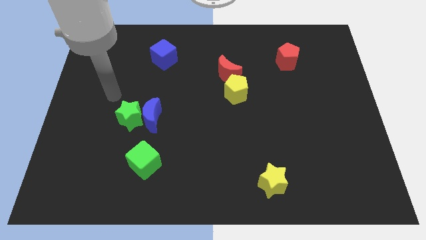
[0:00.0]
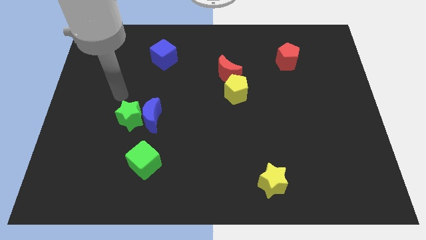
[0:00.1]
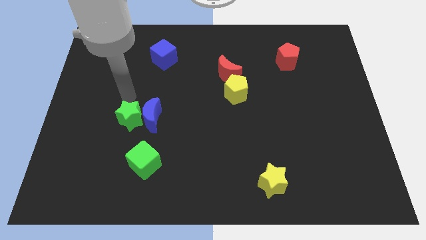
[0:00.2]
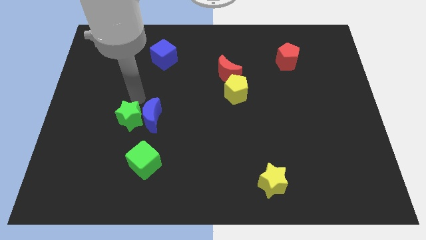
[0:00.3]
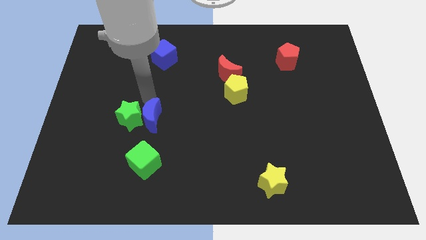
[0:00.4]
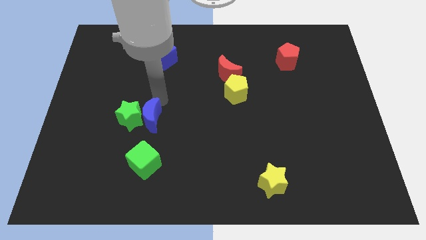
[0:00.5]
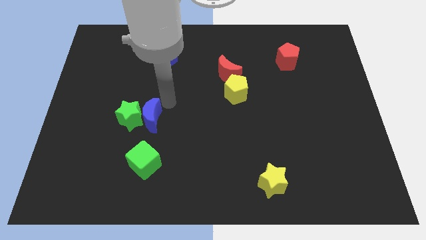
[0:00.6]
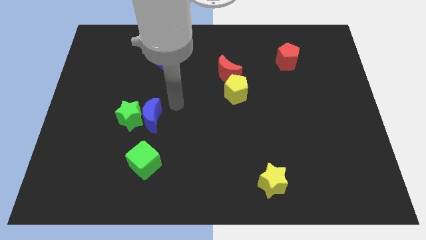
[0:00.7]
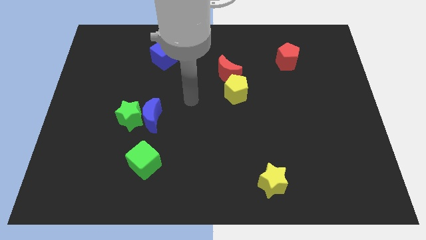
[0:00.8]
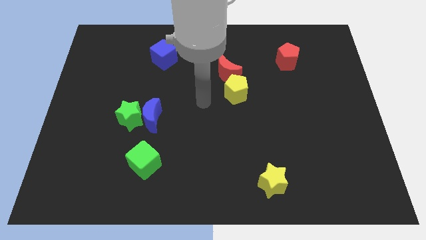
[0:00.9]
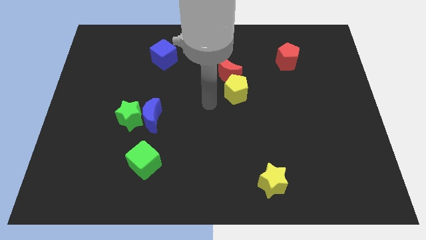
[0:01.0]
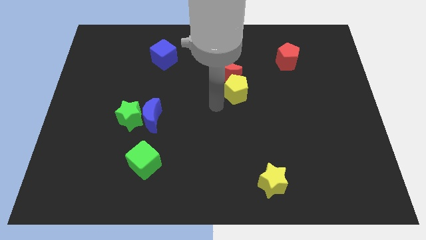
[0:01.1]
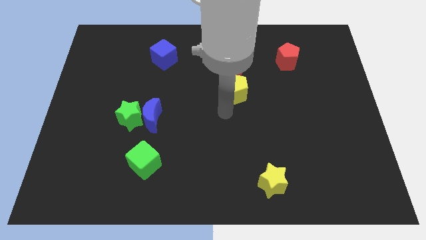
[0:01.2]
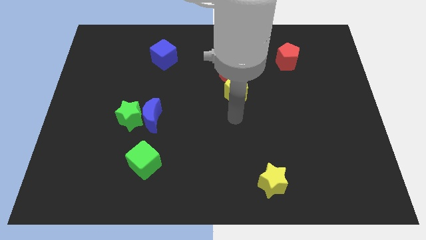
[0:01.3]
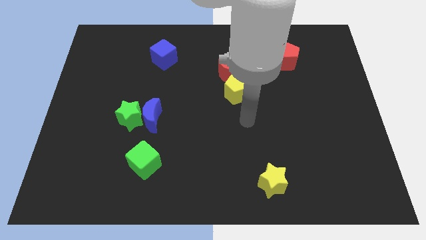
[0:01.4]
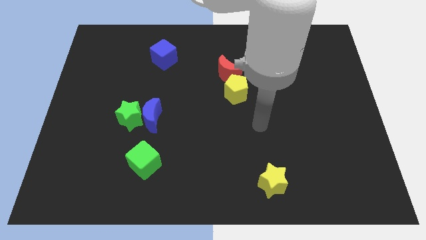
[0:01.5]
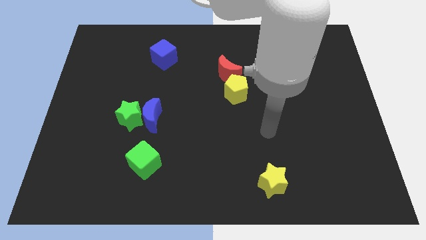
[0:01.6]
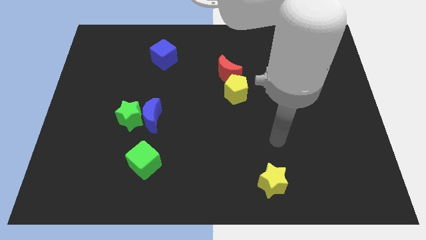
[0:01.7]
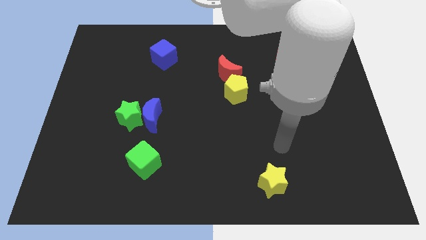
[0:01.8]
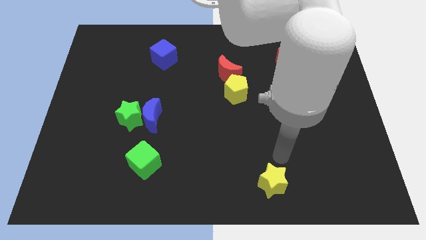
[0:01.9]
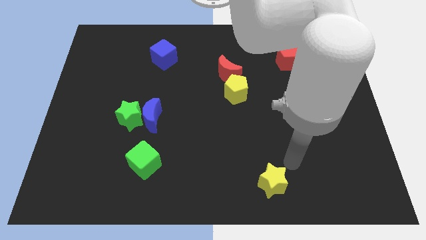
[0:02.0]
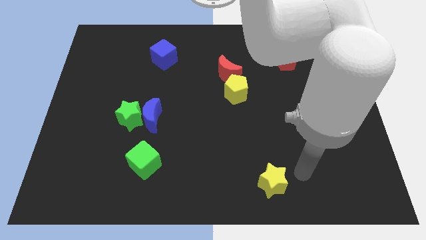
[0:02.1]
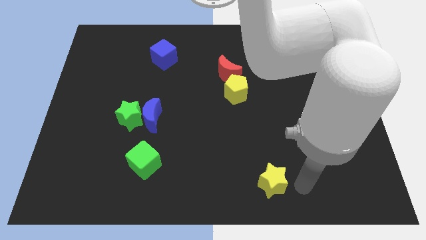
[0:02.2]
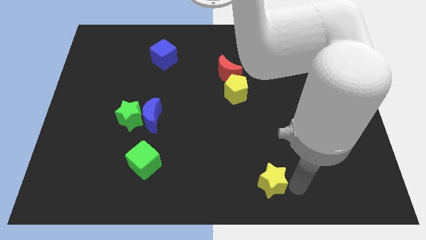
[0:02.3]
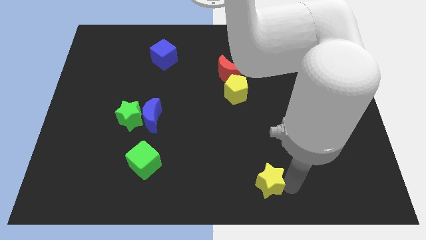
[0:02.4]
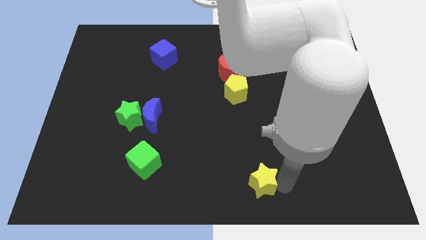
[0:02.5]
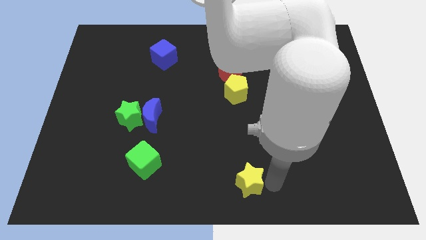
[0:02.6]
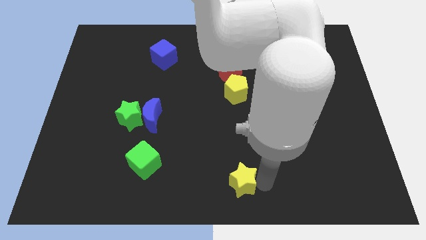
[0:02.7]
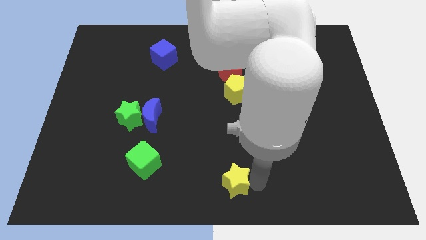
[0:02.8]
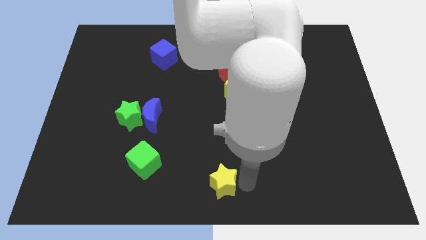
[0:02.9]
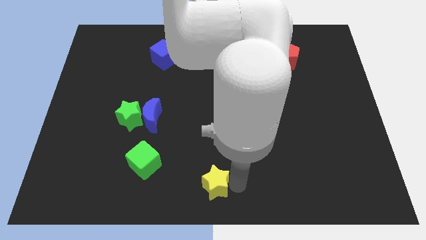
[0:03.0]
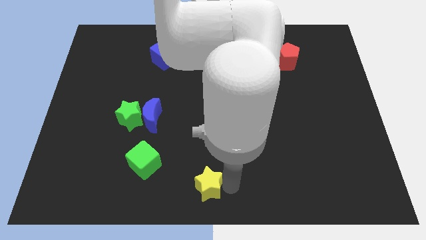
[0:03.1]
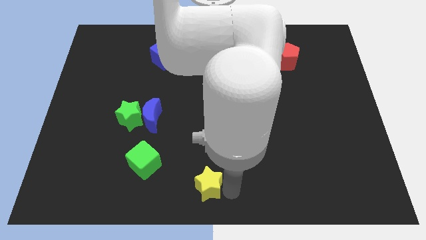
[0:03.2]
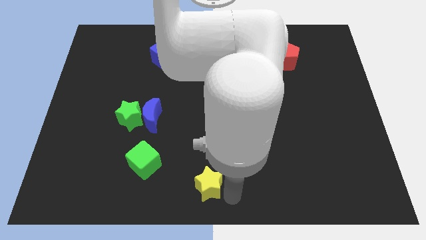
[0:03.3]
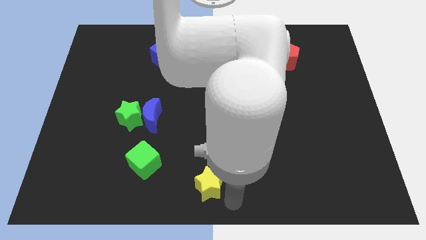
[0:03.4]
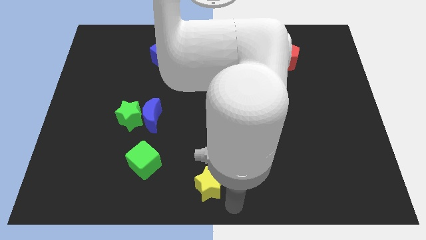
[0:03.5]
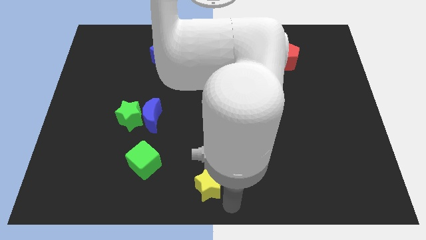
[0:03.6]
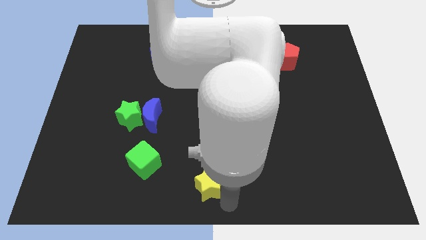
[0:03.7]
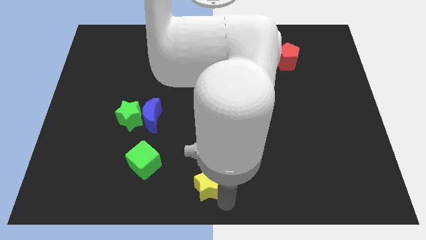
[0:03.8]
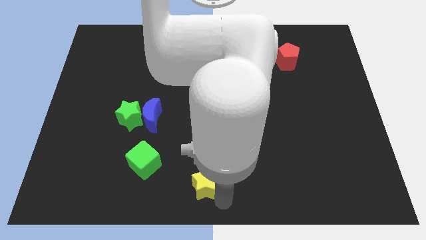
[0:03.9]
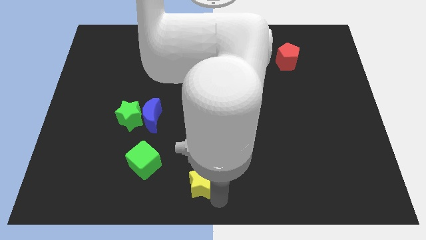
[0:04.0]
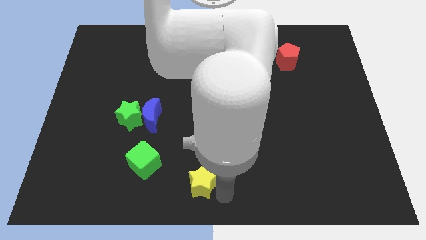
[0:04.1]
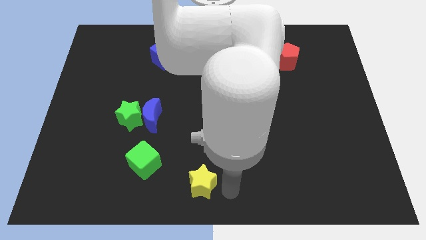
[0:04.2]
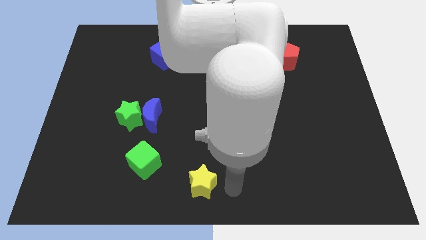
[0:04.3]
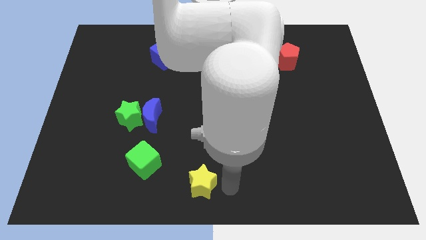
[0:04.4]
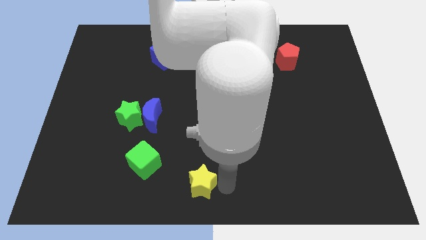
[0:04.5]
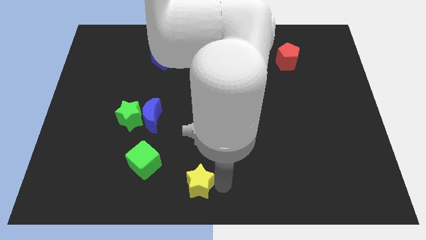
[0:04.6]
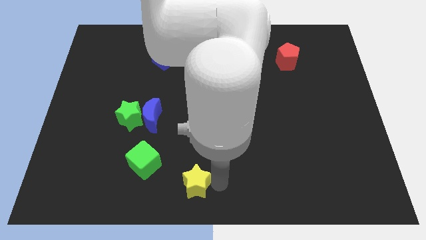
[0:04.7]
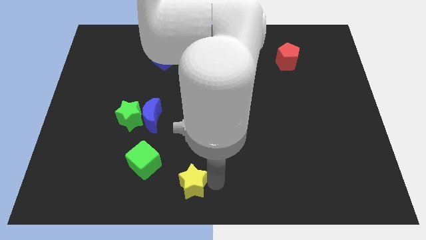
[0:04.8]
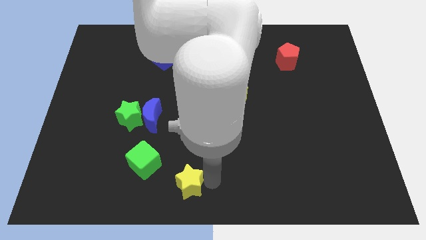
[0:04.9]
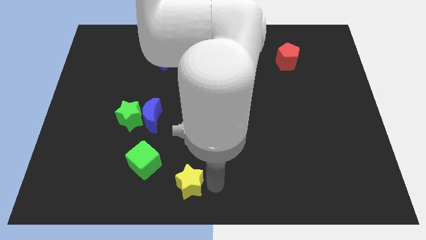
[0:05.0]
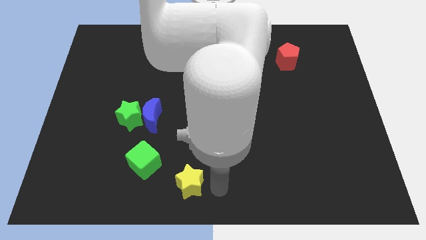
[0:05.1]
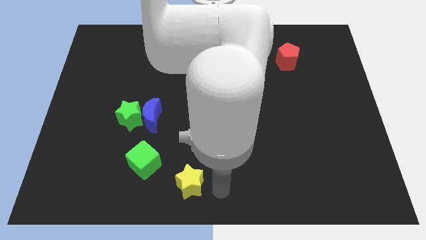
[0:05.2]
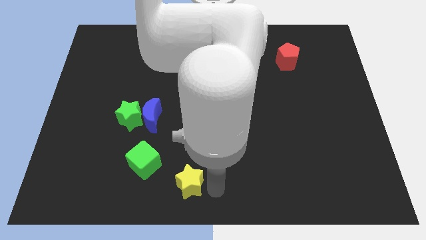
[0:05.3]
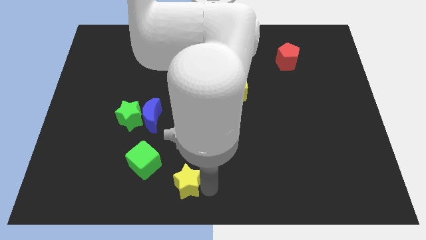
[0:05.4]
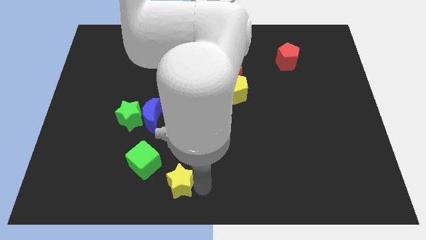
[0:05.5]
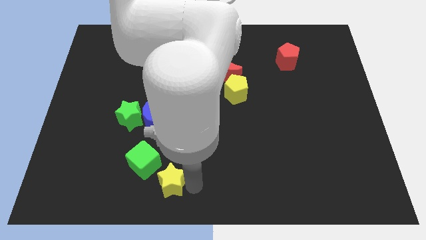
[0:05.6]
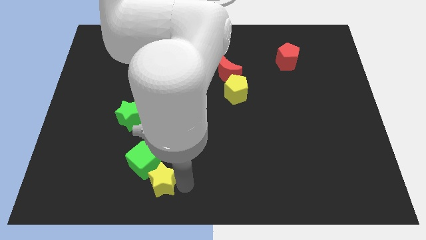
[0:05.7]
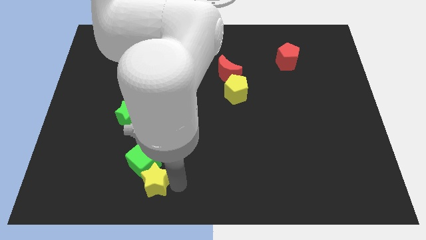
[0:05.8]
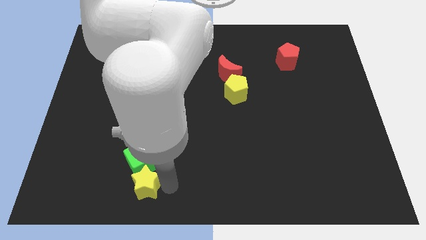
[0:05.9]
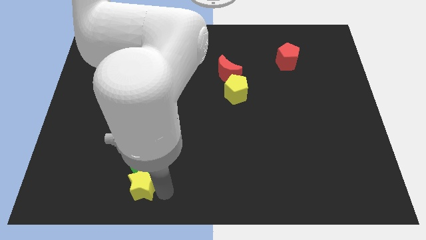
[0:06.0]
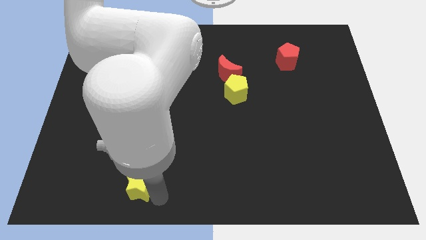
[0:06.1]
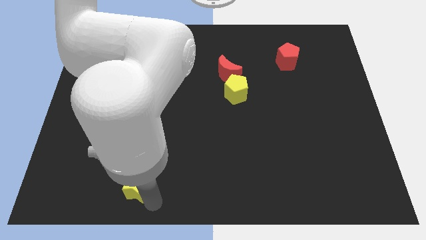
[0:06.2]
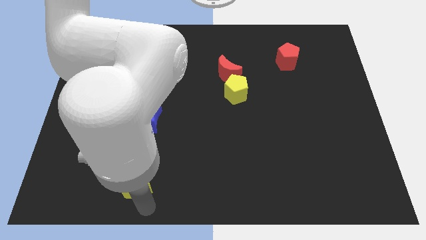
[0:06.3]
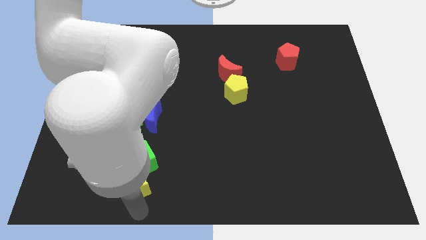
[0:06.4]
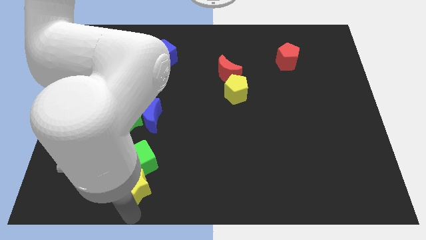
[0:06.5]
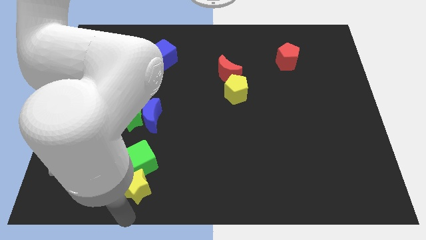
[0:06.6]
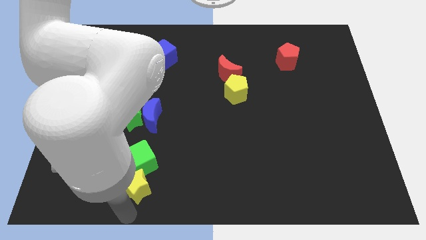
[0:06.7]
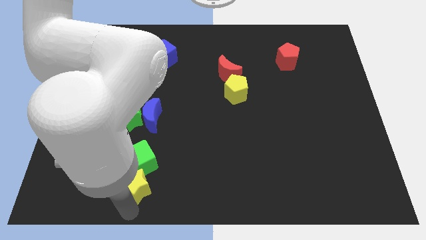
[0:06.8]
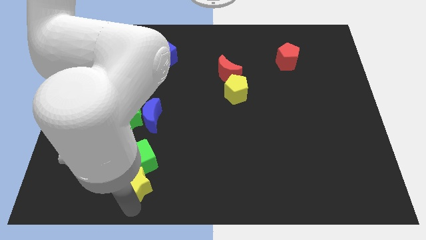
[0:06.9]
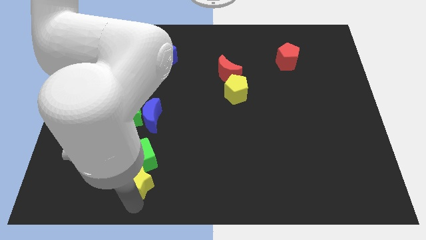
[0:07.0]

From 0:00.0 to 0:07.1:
push the yellow star to the bottom side of the blue moon

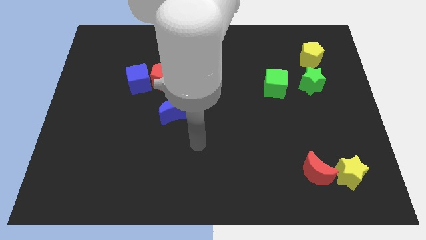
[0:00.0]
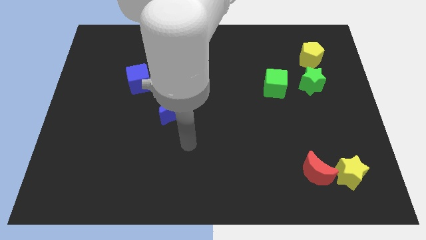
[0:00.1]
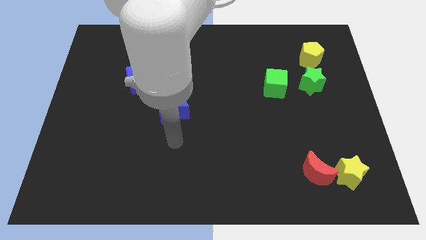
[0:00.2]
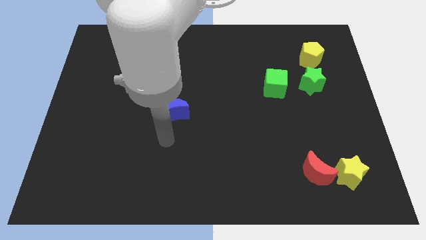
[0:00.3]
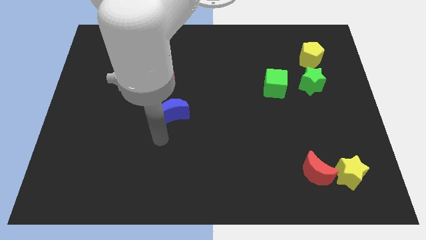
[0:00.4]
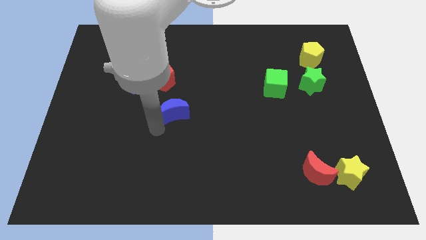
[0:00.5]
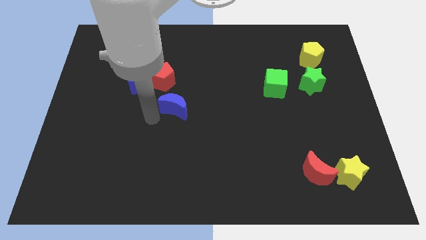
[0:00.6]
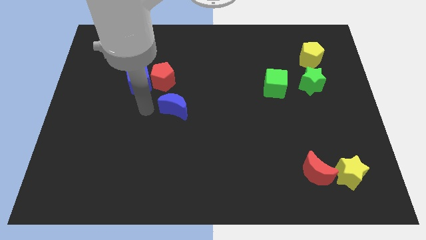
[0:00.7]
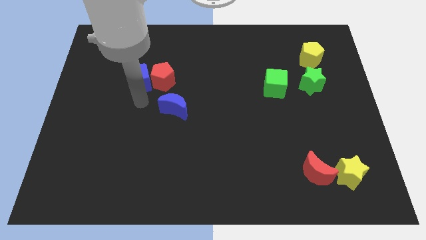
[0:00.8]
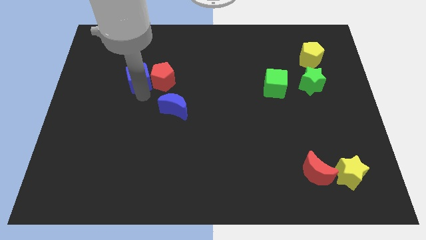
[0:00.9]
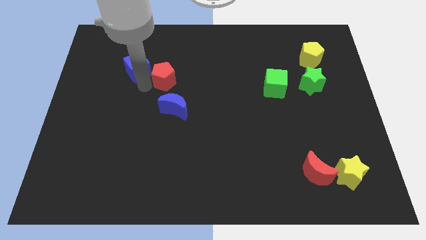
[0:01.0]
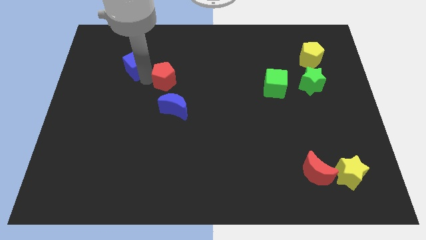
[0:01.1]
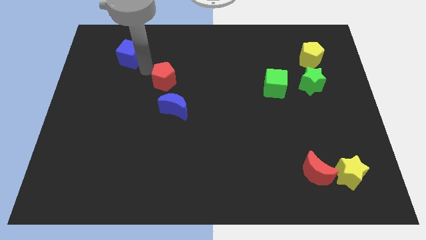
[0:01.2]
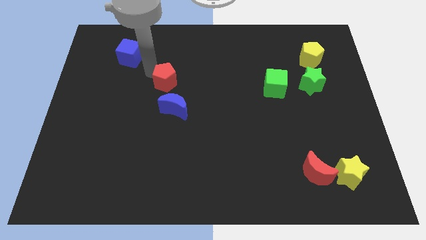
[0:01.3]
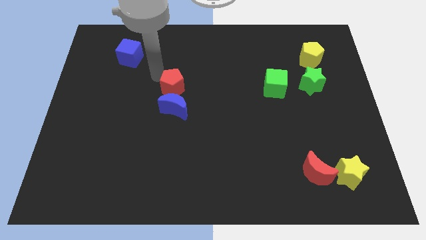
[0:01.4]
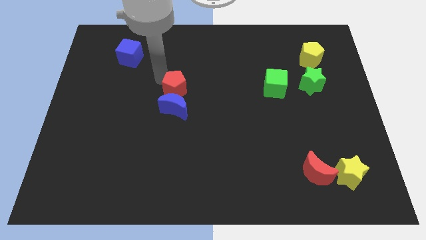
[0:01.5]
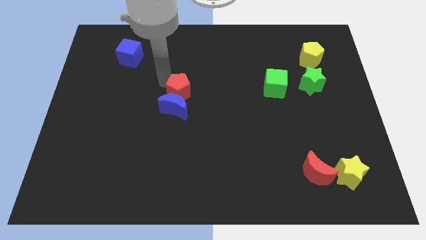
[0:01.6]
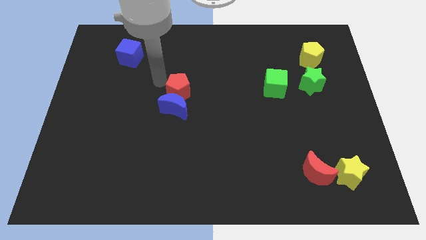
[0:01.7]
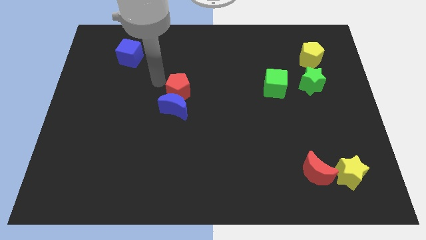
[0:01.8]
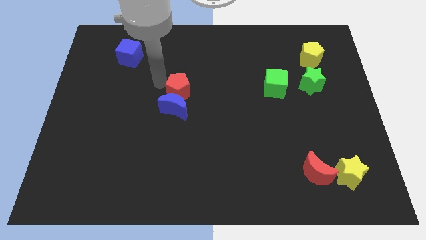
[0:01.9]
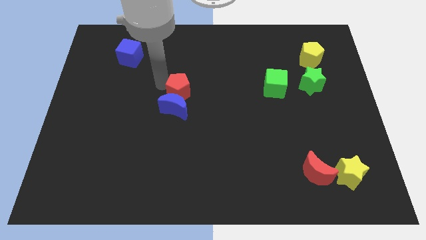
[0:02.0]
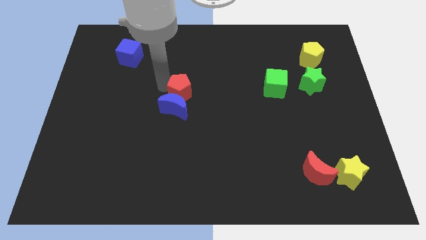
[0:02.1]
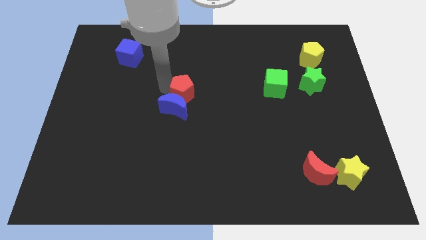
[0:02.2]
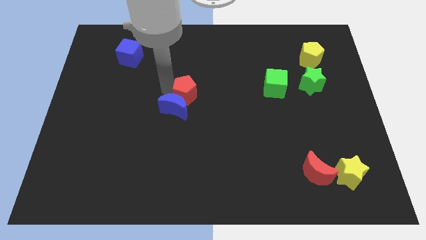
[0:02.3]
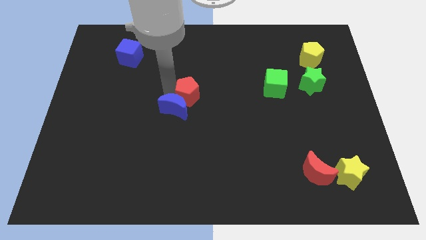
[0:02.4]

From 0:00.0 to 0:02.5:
put the red pentagon right of the blue moon
